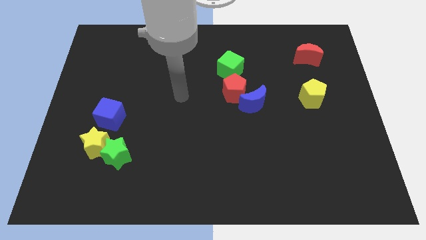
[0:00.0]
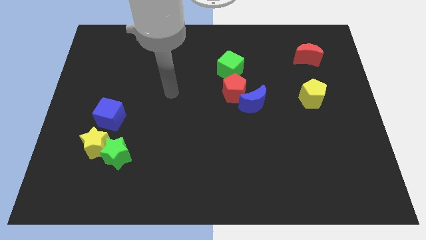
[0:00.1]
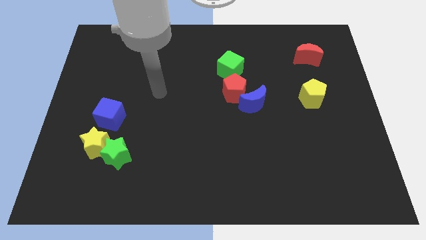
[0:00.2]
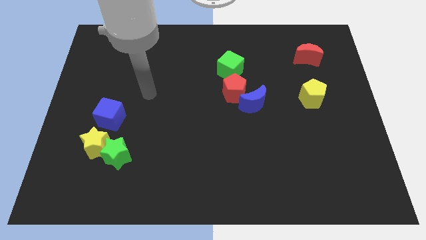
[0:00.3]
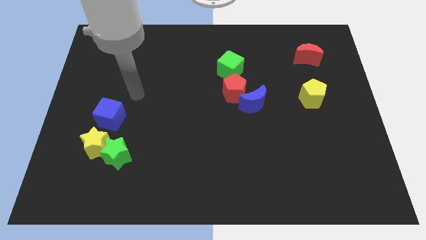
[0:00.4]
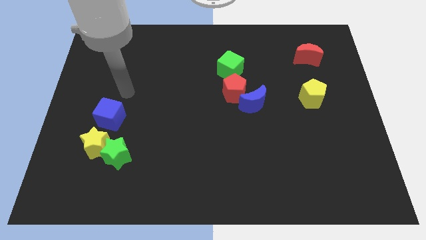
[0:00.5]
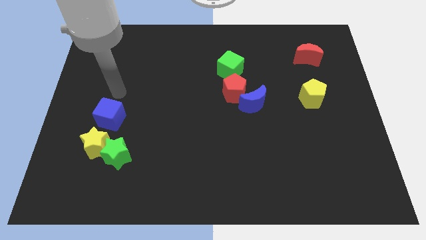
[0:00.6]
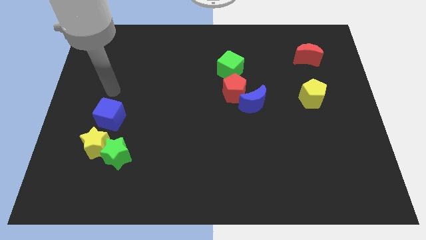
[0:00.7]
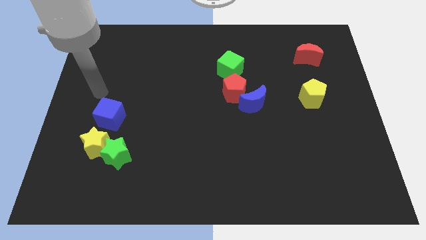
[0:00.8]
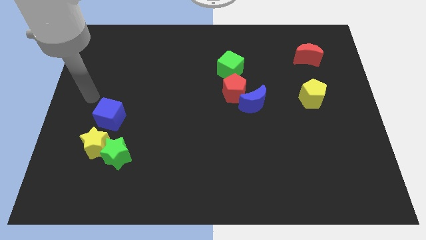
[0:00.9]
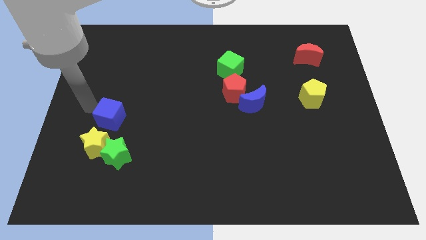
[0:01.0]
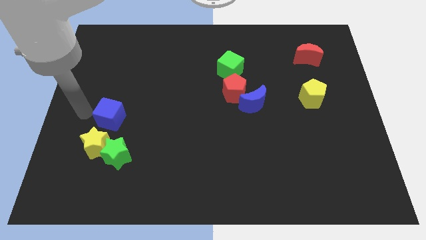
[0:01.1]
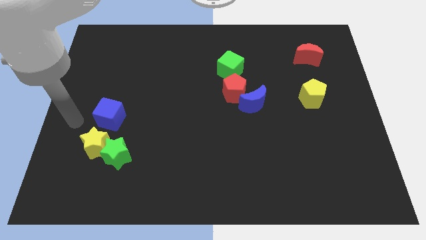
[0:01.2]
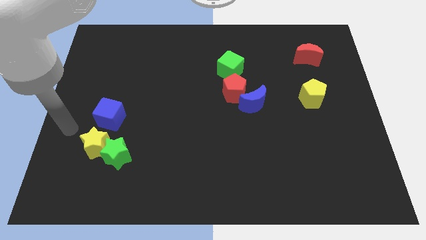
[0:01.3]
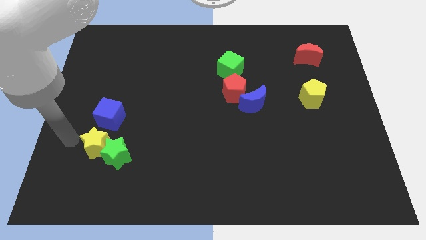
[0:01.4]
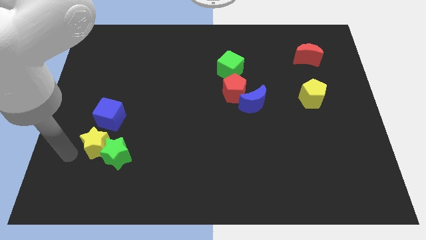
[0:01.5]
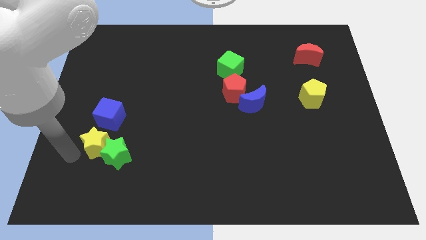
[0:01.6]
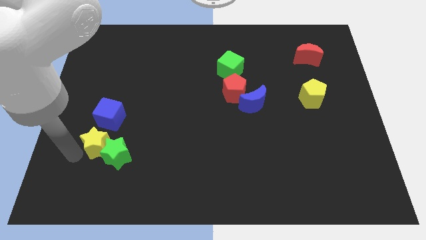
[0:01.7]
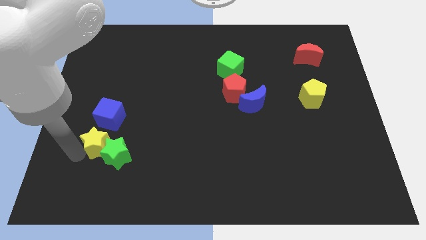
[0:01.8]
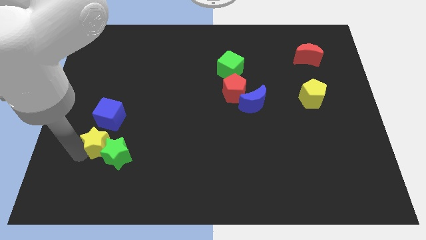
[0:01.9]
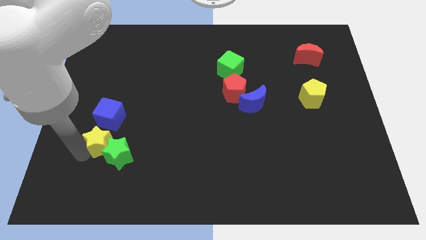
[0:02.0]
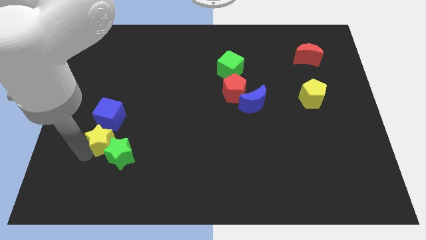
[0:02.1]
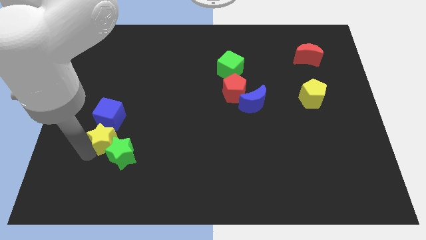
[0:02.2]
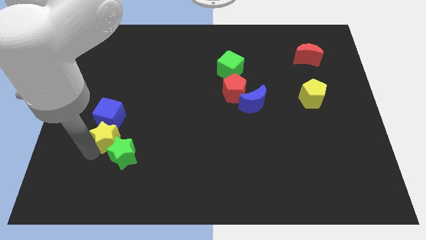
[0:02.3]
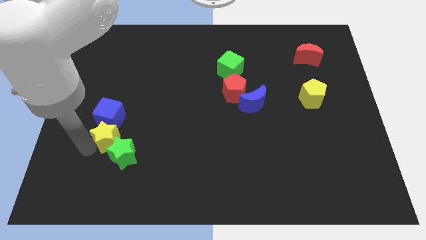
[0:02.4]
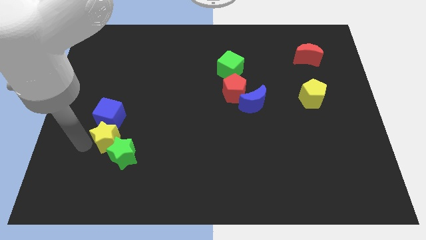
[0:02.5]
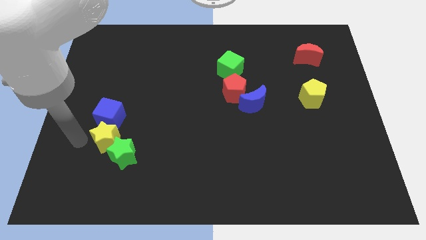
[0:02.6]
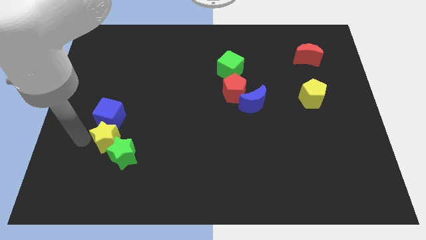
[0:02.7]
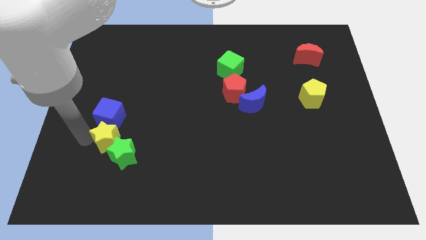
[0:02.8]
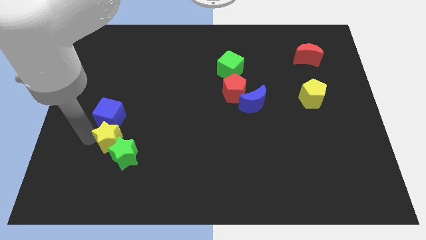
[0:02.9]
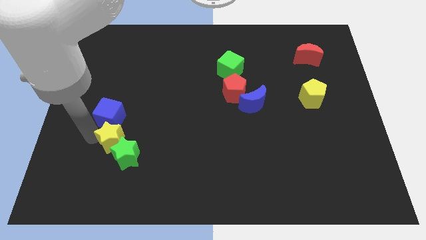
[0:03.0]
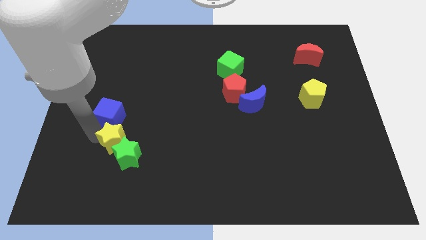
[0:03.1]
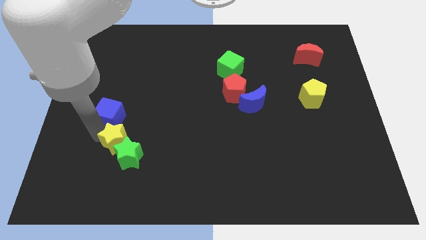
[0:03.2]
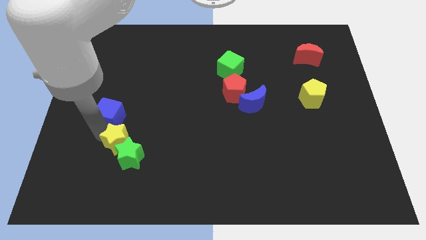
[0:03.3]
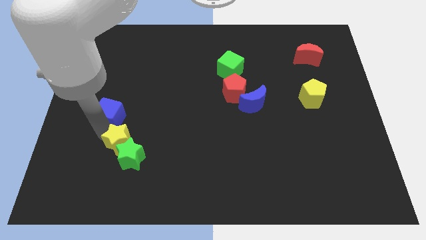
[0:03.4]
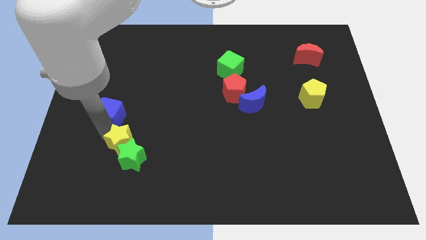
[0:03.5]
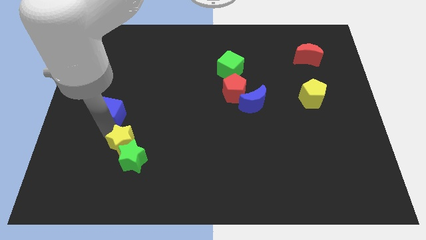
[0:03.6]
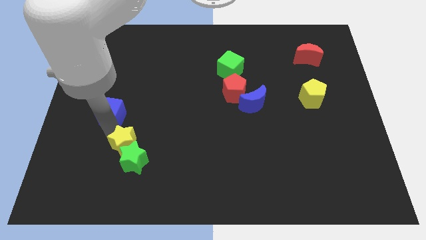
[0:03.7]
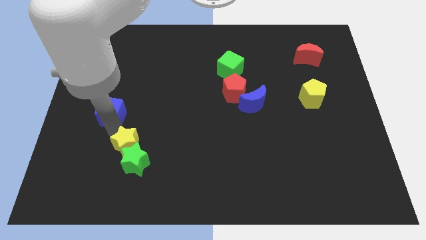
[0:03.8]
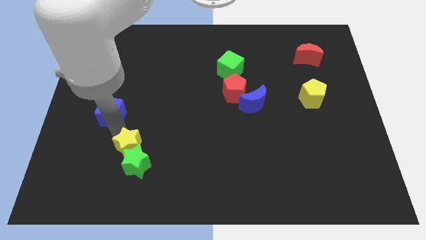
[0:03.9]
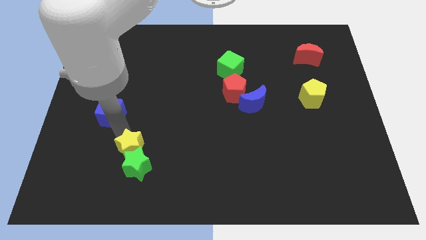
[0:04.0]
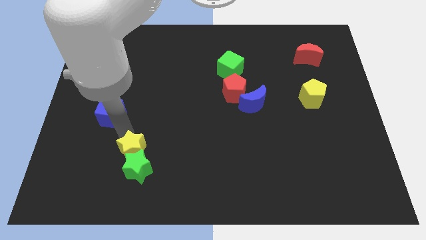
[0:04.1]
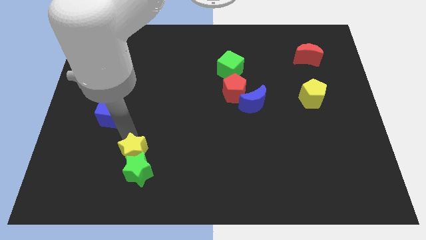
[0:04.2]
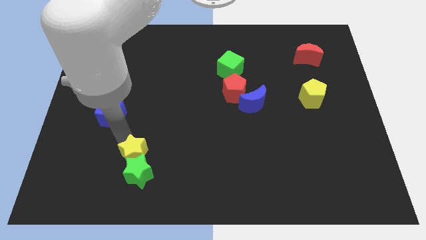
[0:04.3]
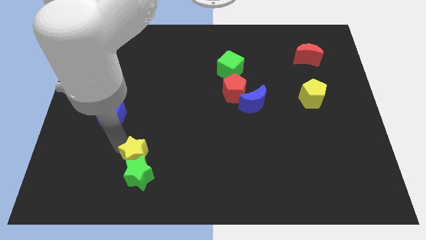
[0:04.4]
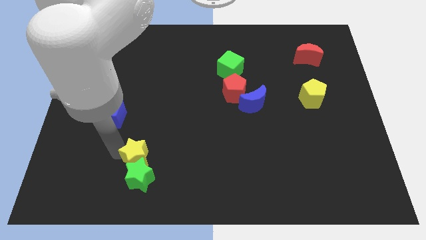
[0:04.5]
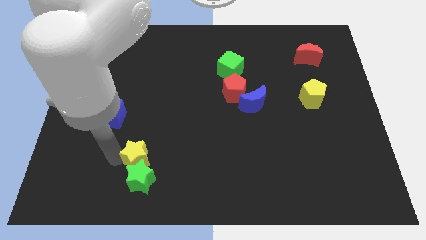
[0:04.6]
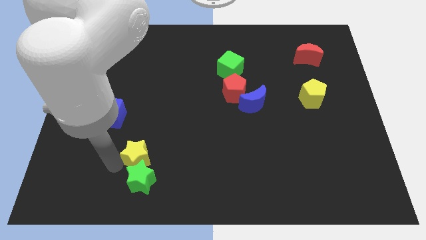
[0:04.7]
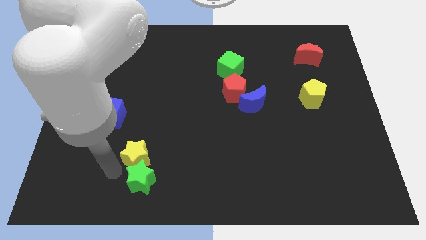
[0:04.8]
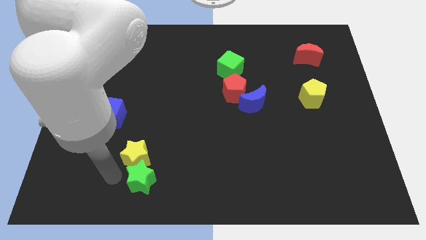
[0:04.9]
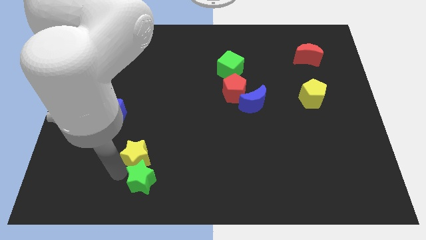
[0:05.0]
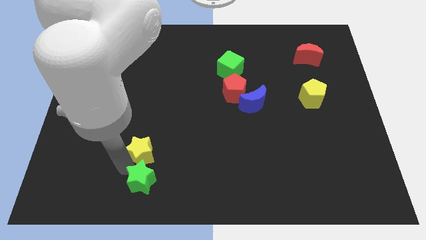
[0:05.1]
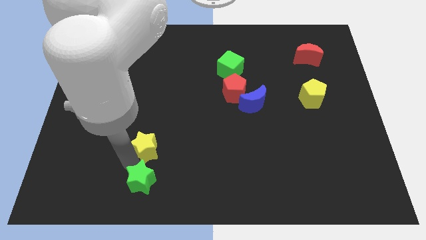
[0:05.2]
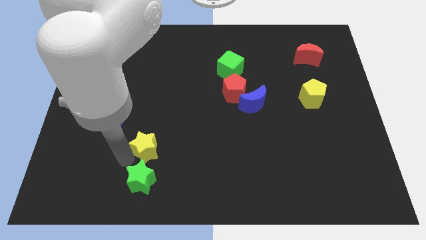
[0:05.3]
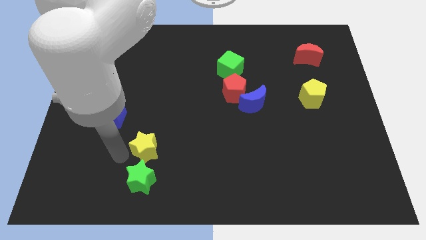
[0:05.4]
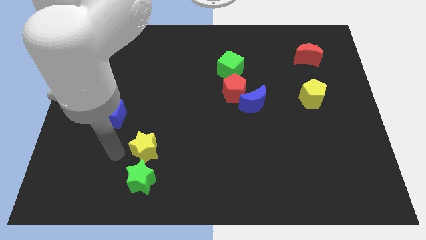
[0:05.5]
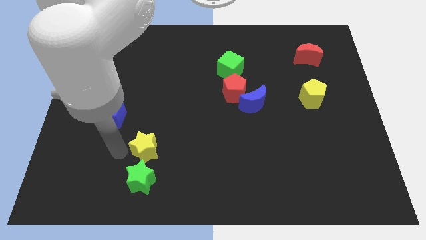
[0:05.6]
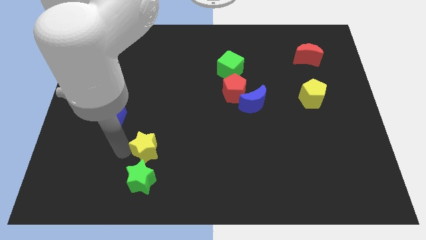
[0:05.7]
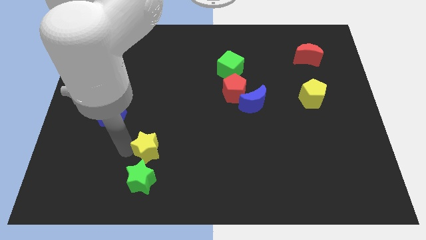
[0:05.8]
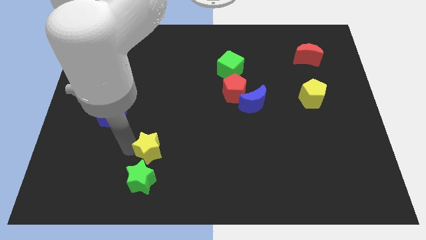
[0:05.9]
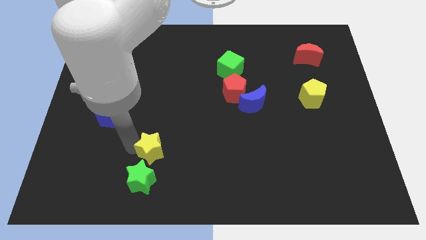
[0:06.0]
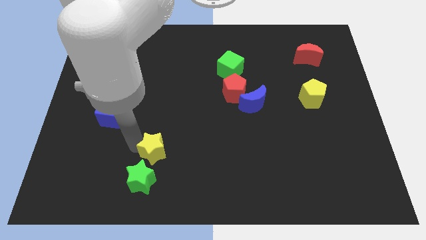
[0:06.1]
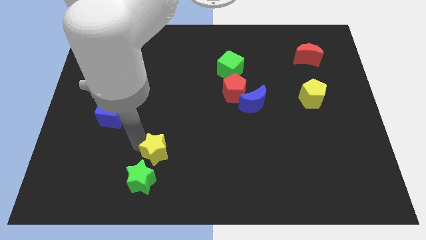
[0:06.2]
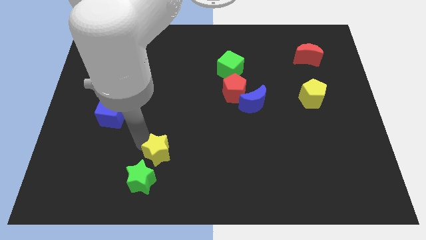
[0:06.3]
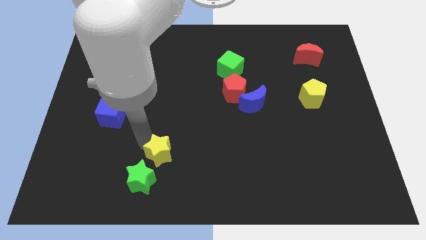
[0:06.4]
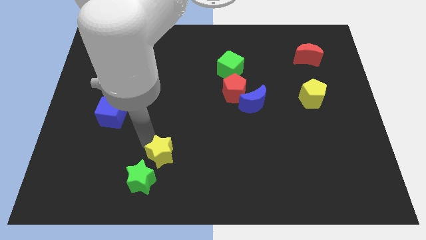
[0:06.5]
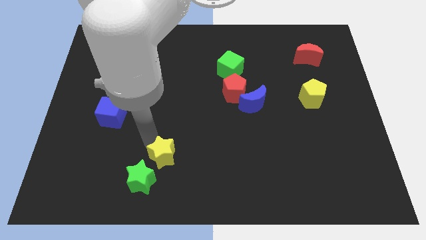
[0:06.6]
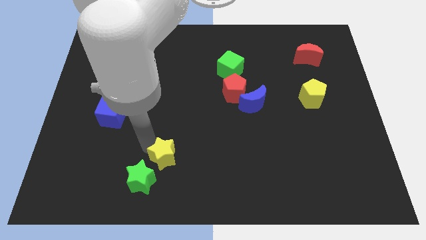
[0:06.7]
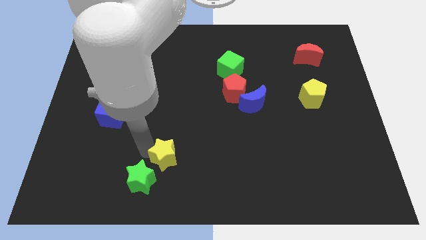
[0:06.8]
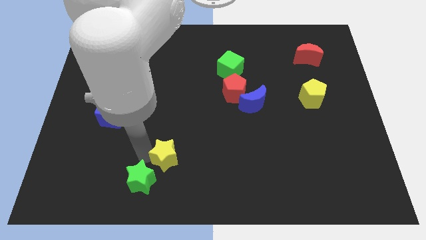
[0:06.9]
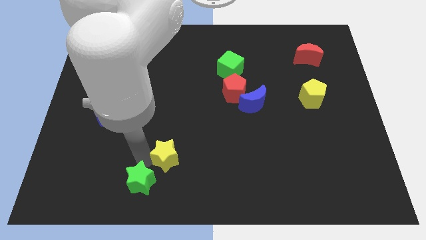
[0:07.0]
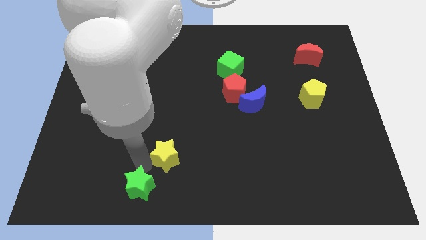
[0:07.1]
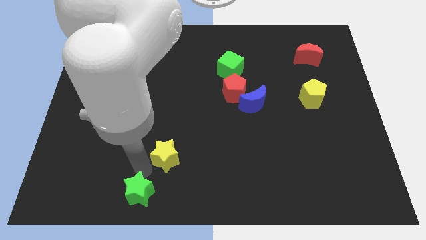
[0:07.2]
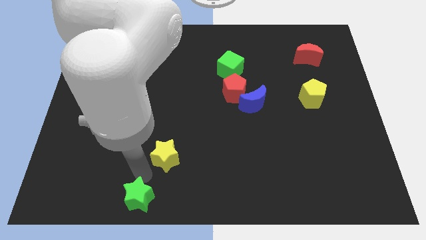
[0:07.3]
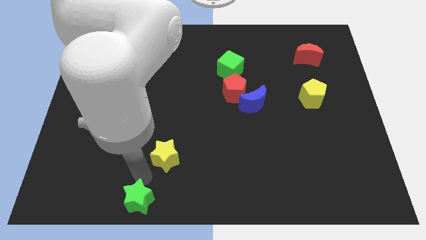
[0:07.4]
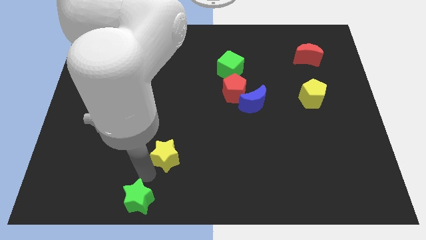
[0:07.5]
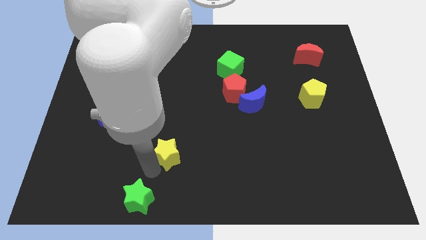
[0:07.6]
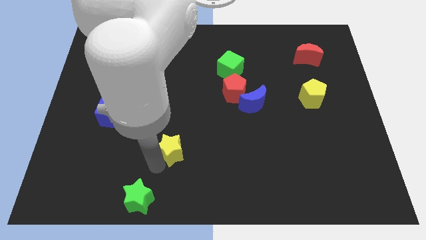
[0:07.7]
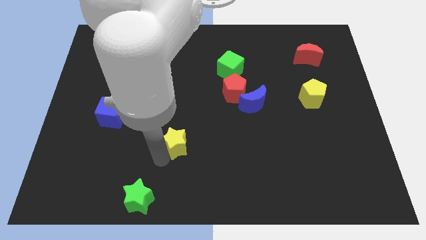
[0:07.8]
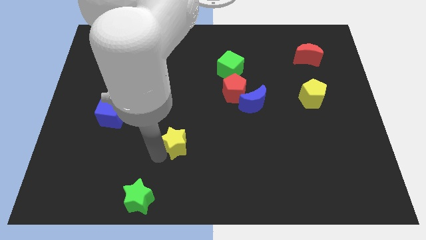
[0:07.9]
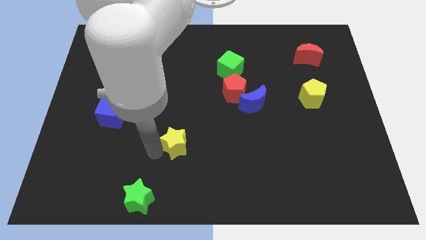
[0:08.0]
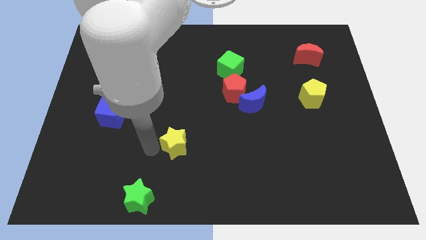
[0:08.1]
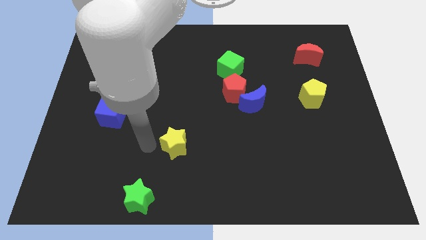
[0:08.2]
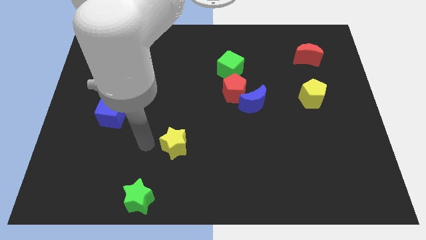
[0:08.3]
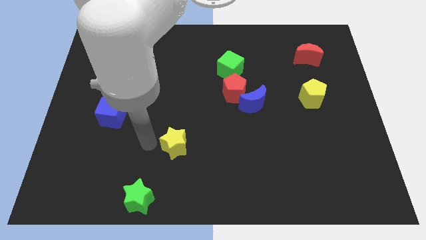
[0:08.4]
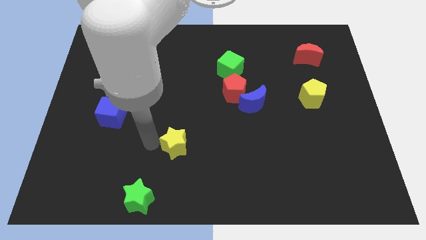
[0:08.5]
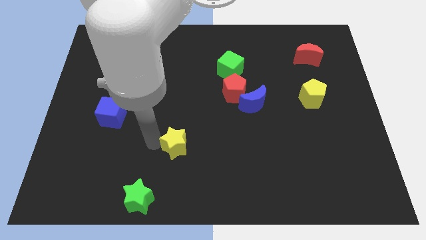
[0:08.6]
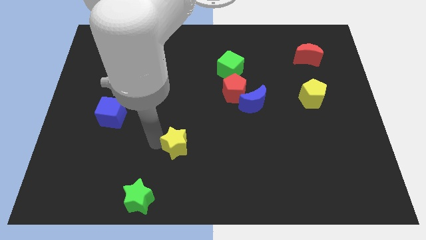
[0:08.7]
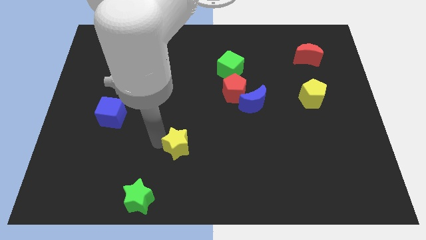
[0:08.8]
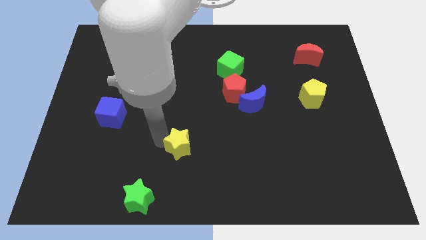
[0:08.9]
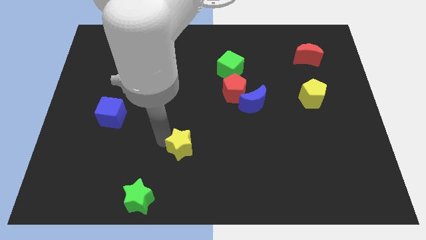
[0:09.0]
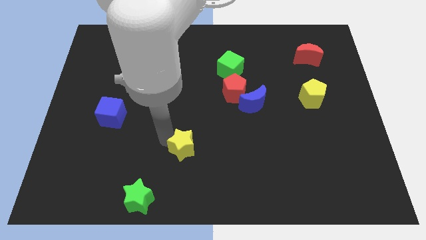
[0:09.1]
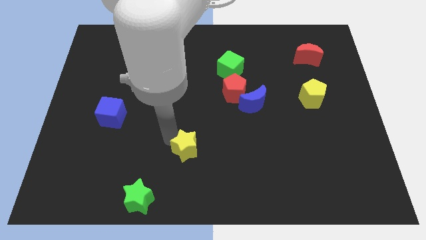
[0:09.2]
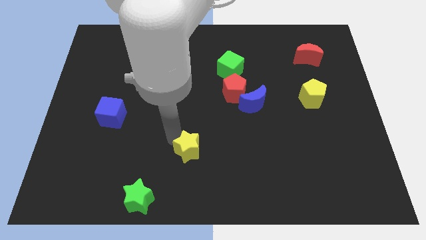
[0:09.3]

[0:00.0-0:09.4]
move the yellow star to the right
